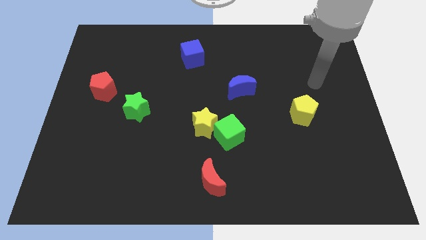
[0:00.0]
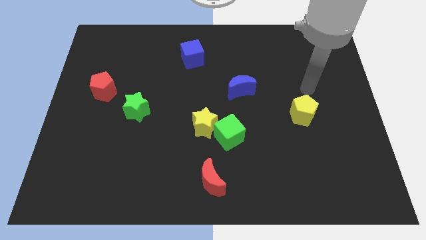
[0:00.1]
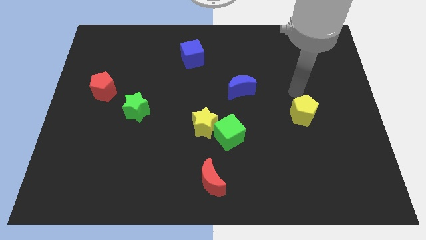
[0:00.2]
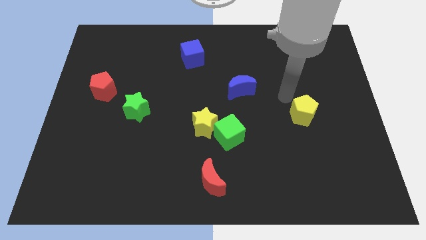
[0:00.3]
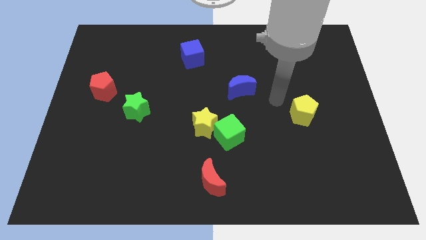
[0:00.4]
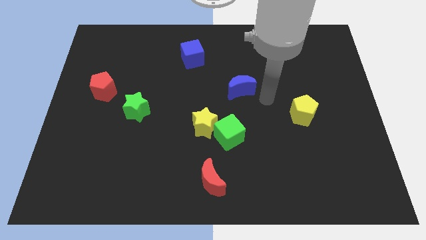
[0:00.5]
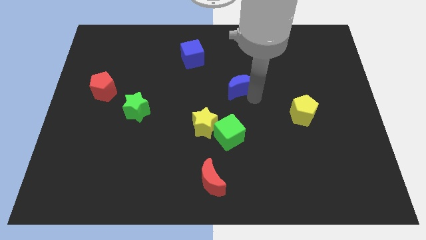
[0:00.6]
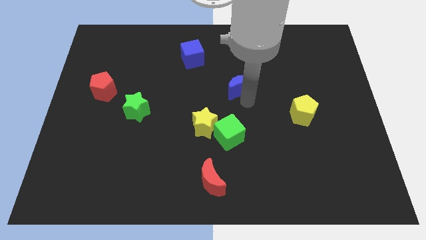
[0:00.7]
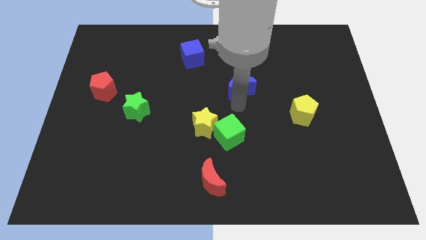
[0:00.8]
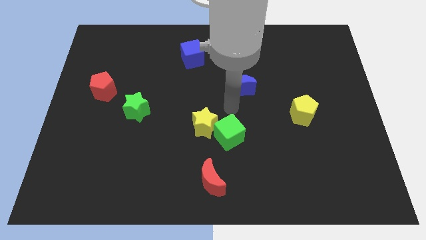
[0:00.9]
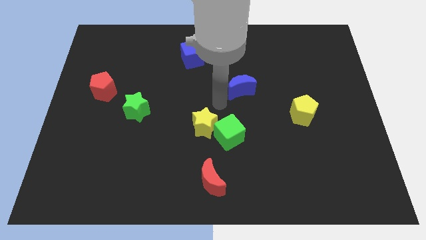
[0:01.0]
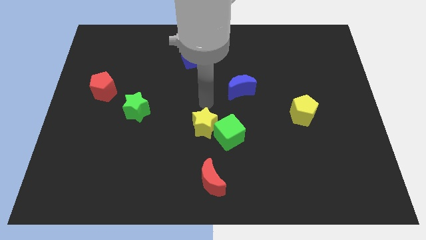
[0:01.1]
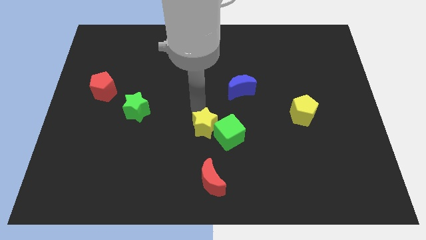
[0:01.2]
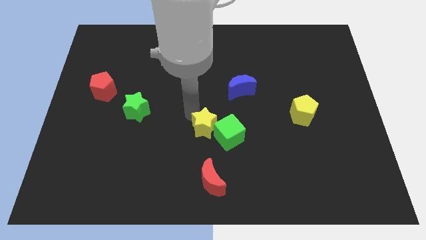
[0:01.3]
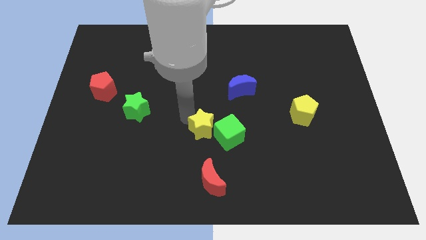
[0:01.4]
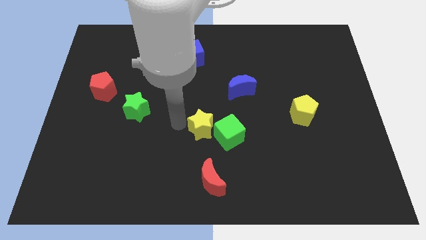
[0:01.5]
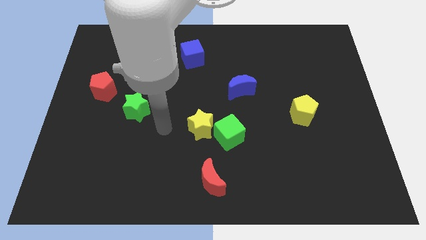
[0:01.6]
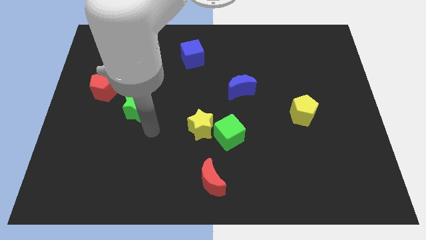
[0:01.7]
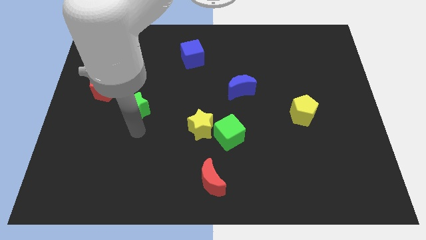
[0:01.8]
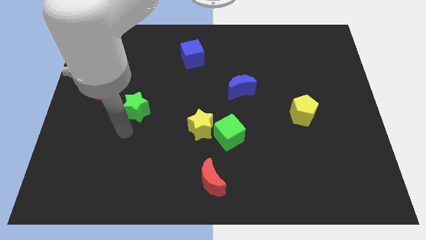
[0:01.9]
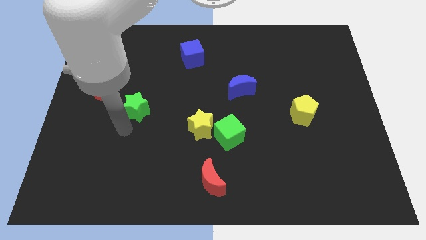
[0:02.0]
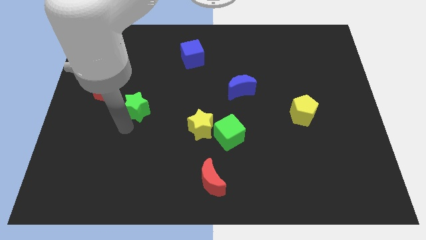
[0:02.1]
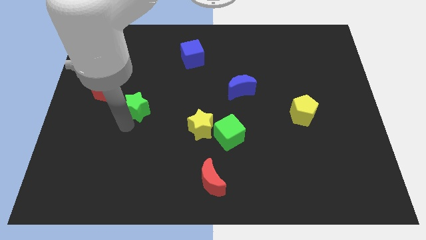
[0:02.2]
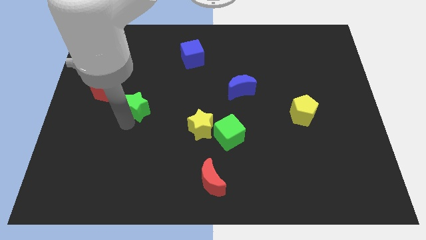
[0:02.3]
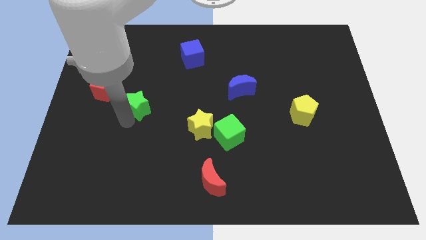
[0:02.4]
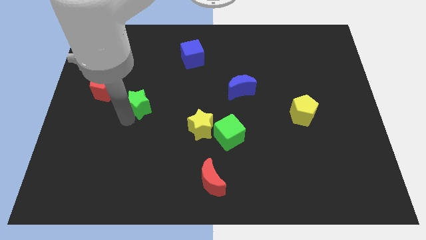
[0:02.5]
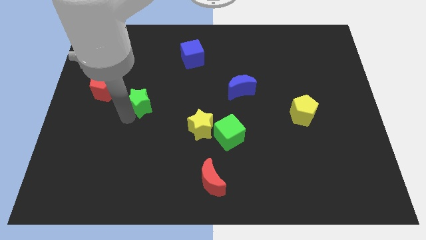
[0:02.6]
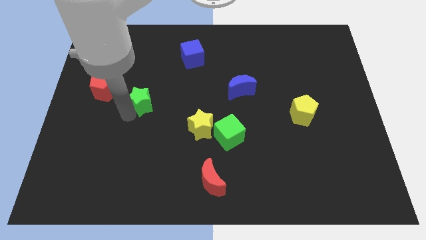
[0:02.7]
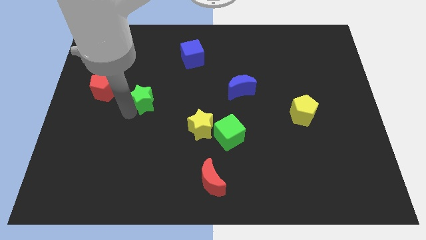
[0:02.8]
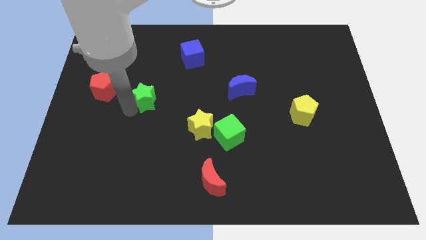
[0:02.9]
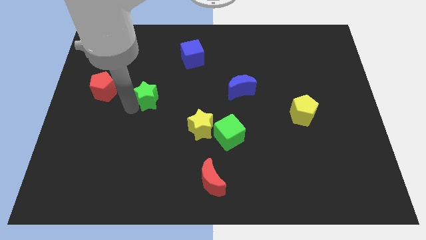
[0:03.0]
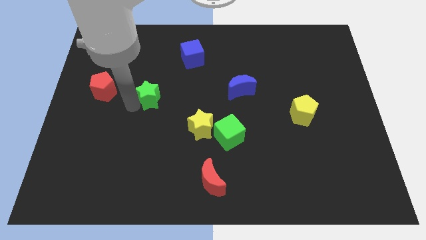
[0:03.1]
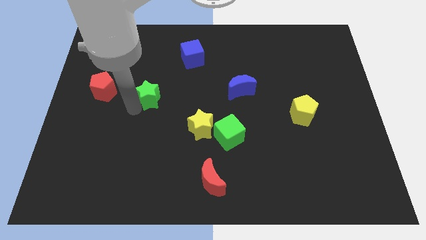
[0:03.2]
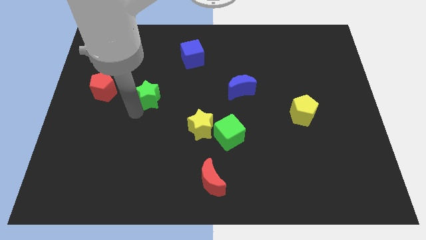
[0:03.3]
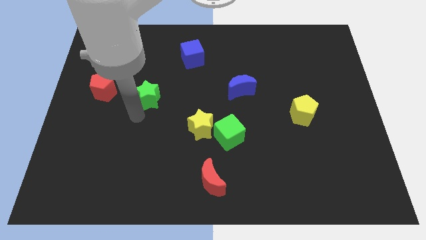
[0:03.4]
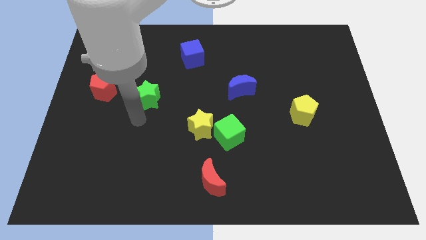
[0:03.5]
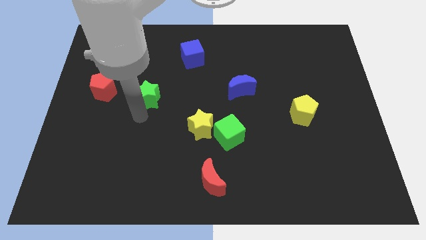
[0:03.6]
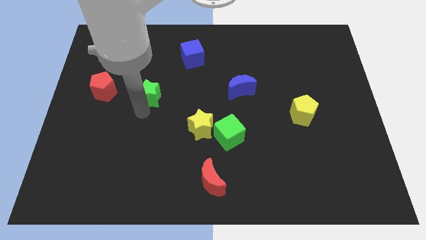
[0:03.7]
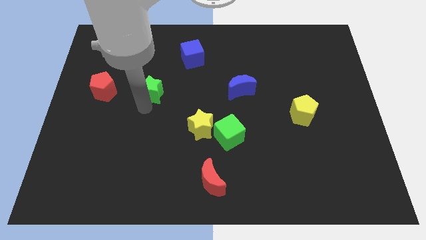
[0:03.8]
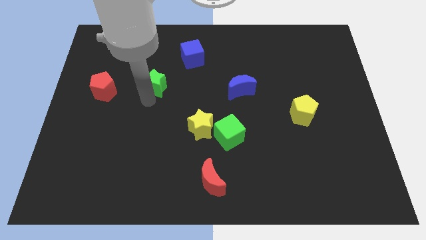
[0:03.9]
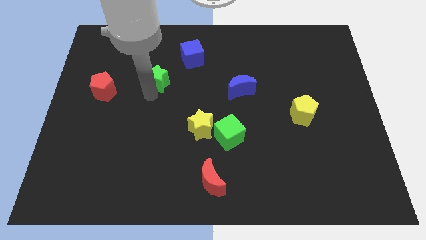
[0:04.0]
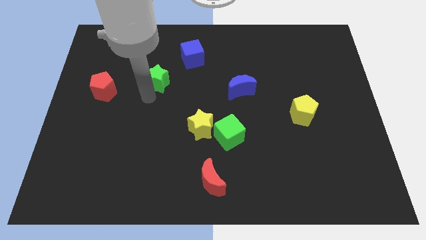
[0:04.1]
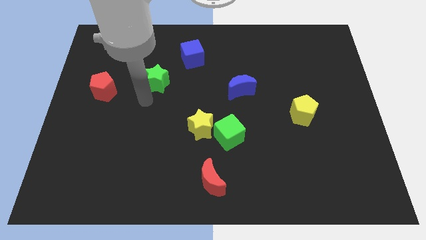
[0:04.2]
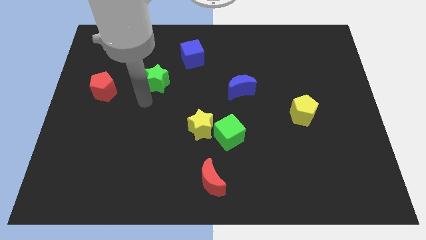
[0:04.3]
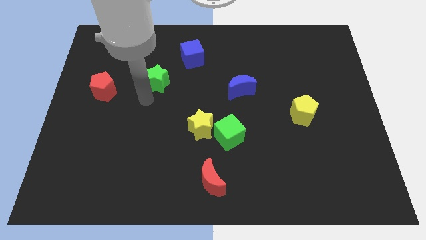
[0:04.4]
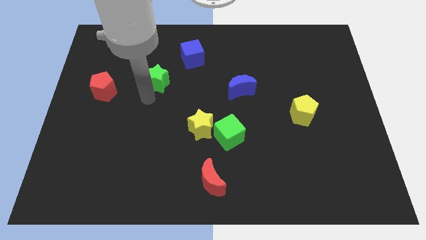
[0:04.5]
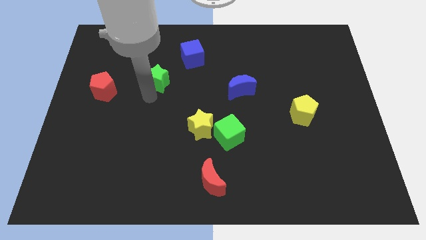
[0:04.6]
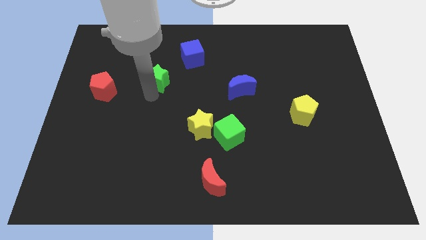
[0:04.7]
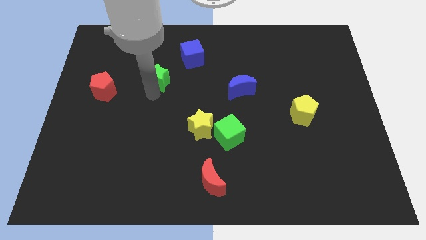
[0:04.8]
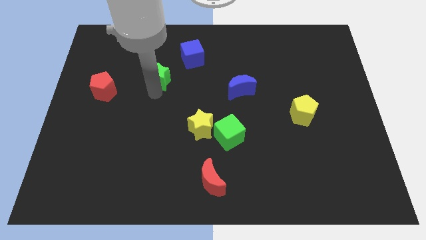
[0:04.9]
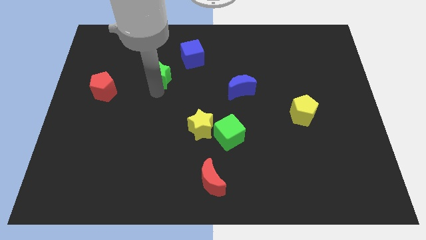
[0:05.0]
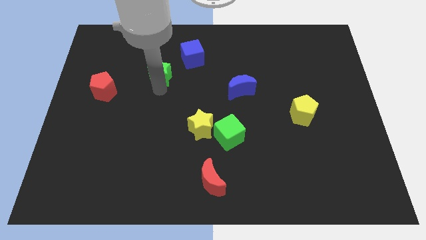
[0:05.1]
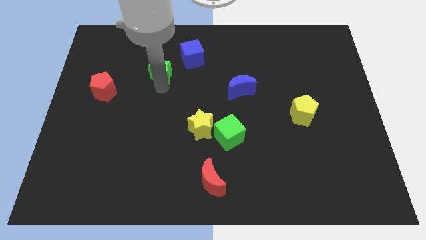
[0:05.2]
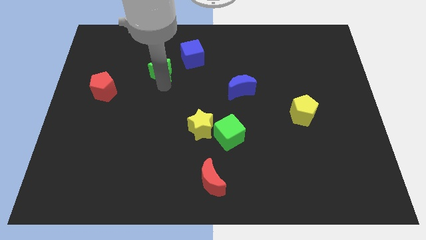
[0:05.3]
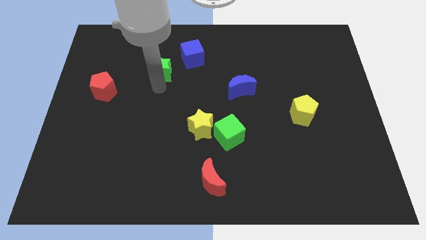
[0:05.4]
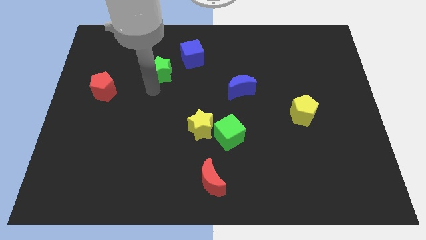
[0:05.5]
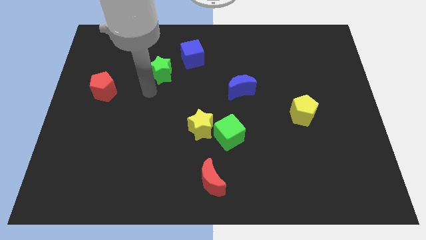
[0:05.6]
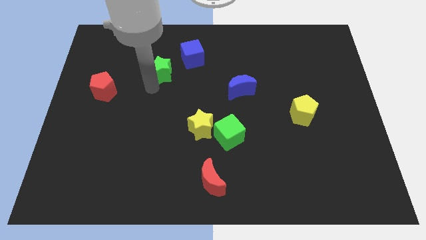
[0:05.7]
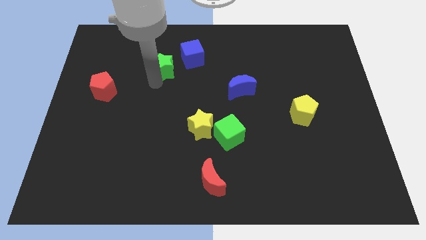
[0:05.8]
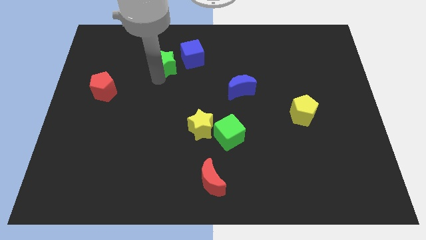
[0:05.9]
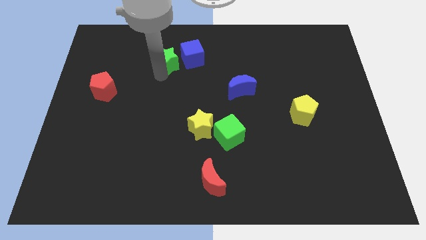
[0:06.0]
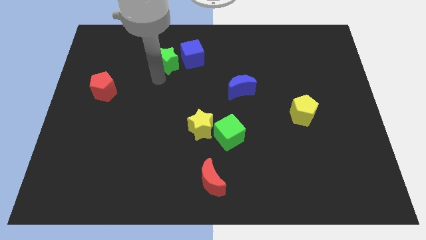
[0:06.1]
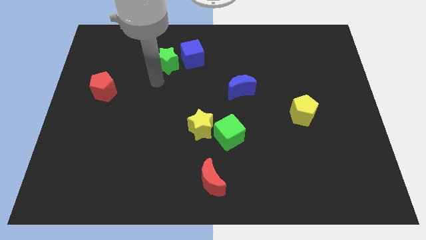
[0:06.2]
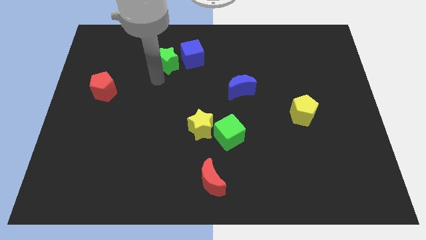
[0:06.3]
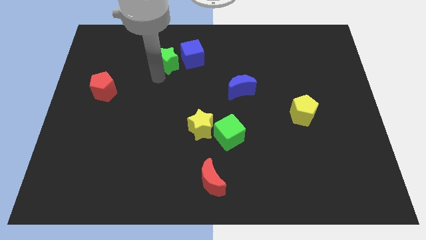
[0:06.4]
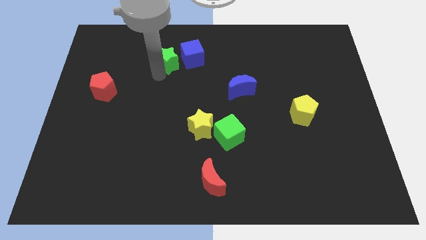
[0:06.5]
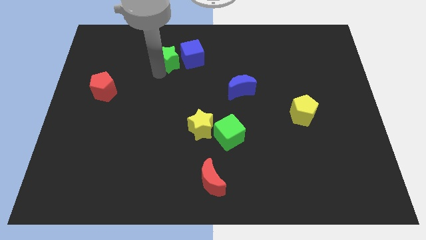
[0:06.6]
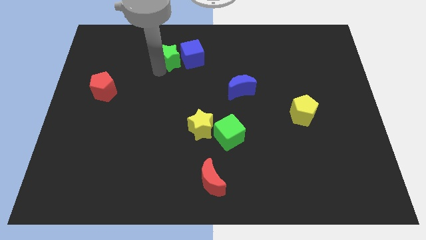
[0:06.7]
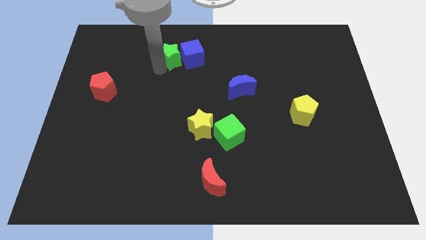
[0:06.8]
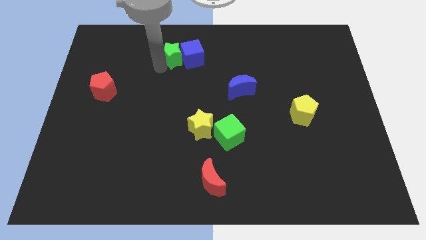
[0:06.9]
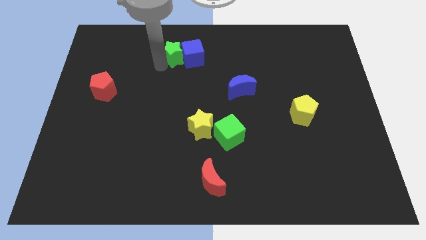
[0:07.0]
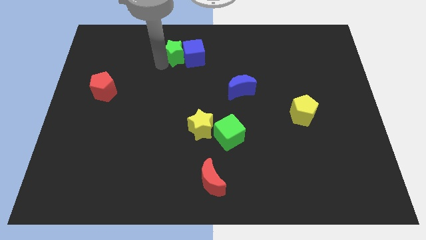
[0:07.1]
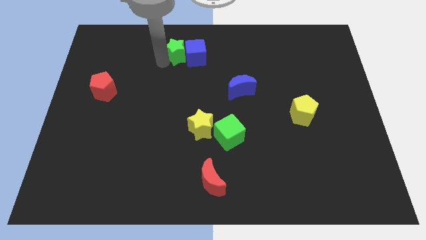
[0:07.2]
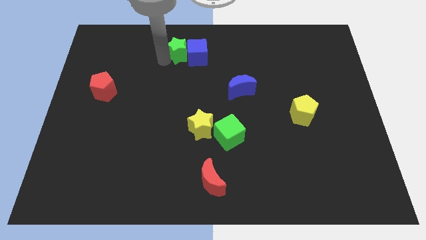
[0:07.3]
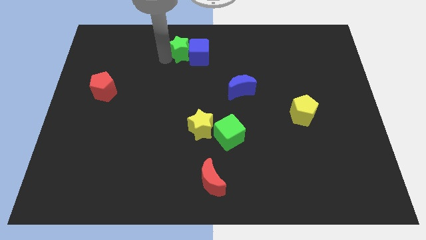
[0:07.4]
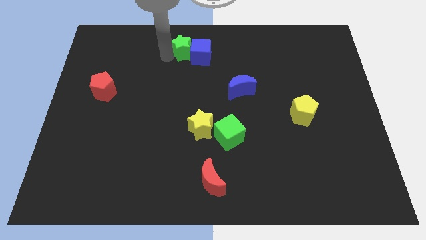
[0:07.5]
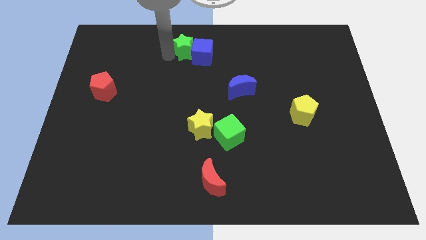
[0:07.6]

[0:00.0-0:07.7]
put the green star to the top side

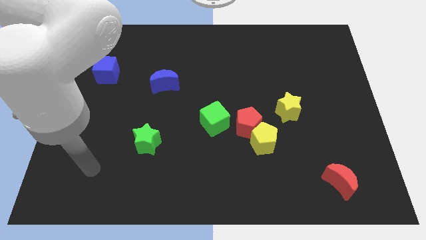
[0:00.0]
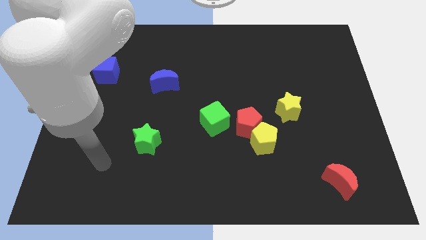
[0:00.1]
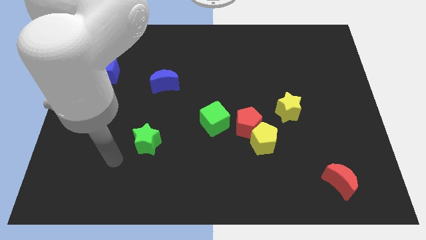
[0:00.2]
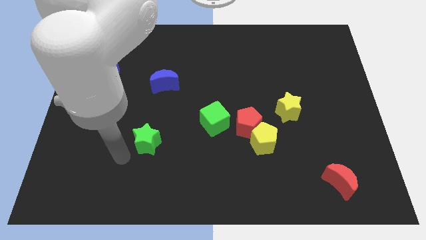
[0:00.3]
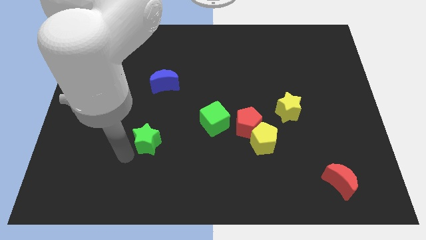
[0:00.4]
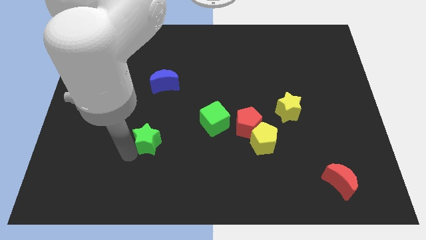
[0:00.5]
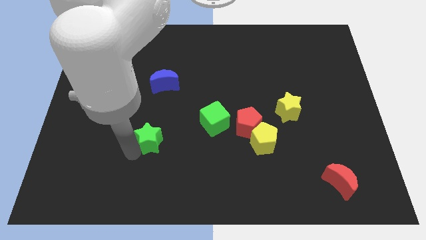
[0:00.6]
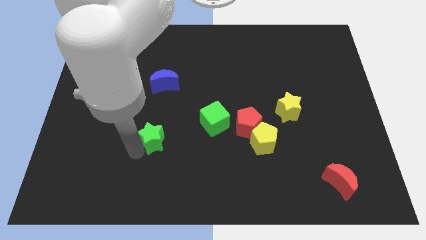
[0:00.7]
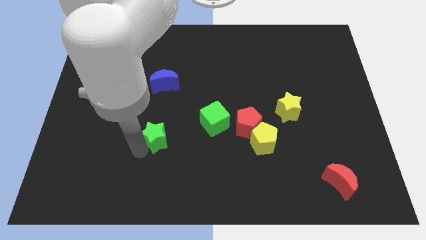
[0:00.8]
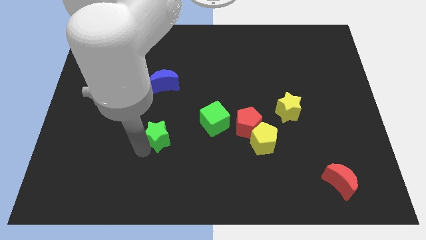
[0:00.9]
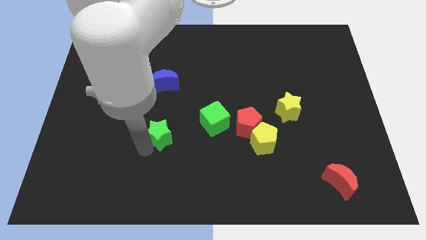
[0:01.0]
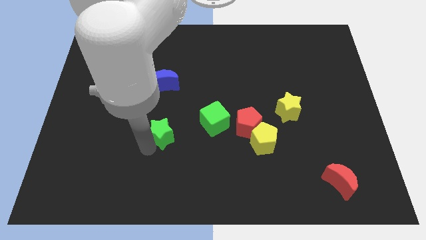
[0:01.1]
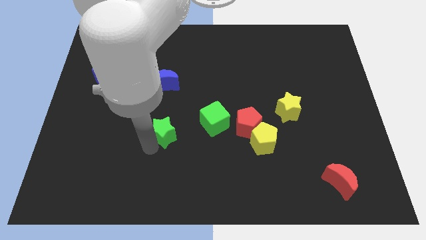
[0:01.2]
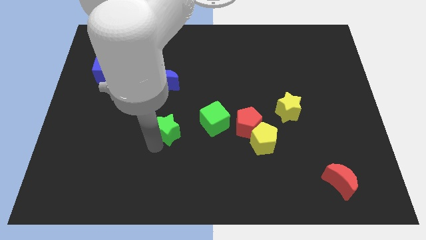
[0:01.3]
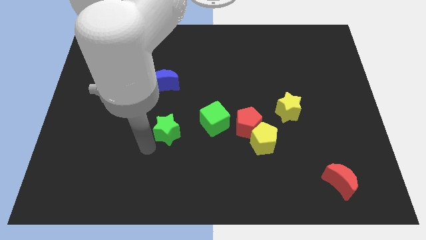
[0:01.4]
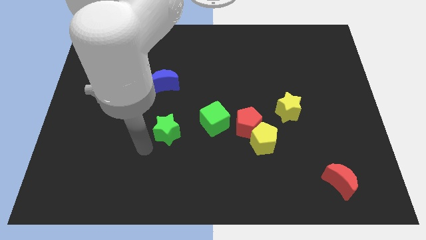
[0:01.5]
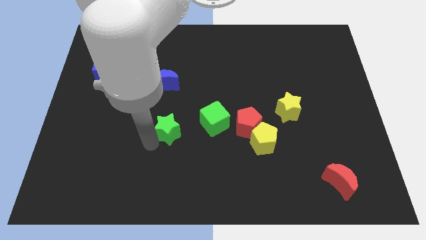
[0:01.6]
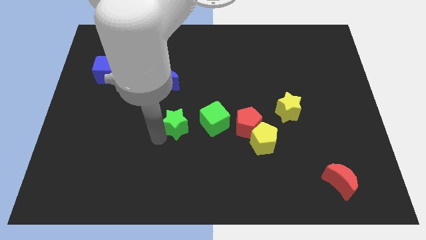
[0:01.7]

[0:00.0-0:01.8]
push the green star to the middle
